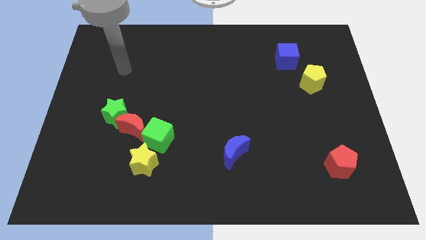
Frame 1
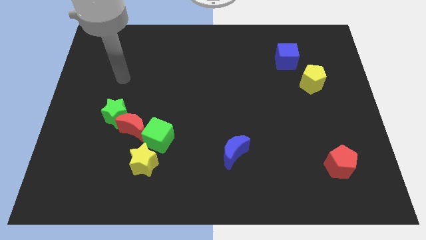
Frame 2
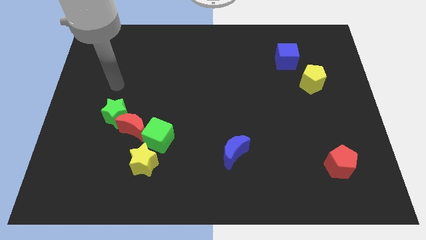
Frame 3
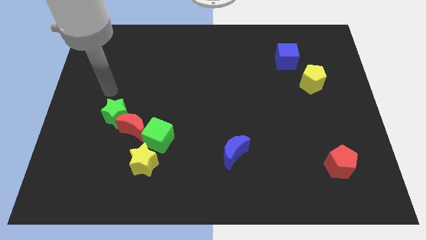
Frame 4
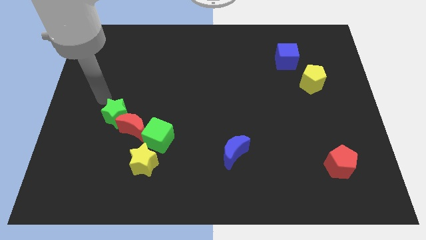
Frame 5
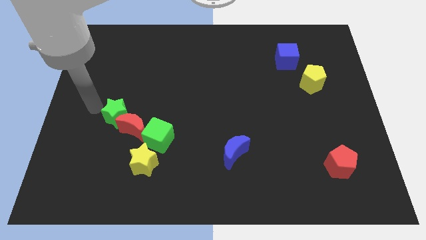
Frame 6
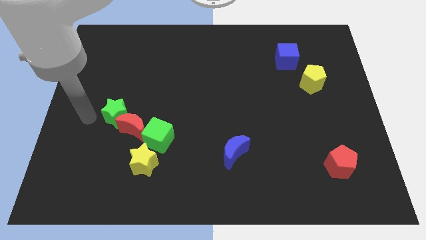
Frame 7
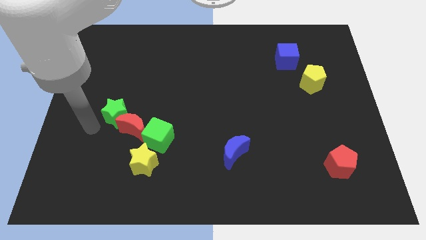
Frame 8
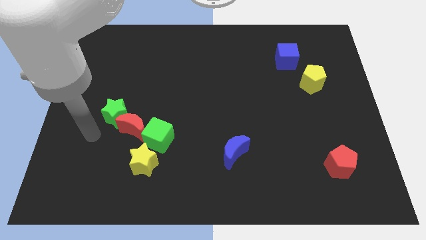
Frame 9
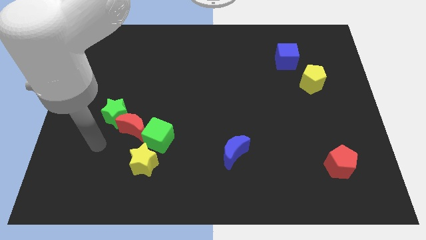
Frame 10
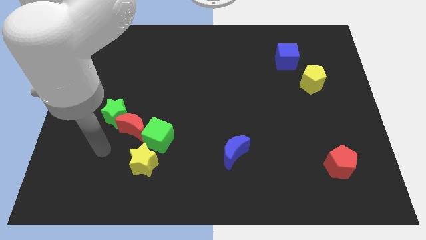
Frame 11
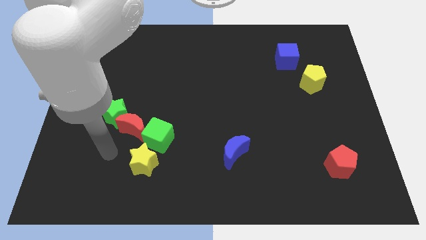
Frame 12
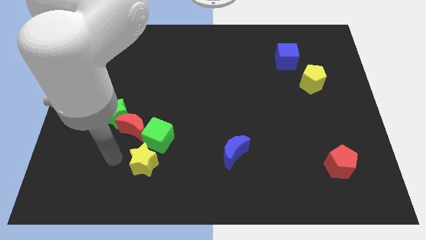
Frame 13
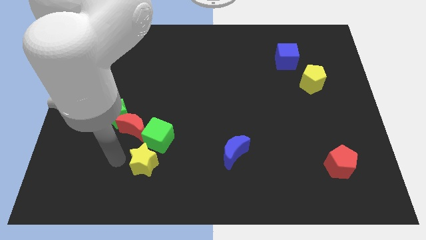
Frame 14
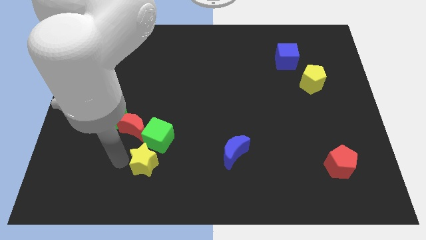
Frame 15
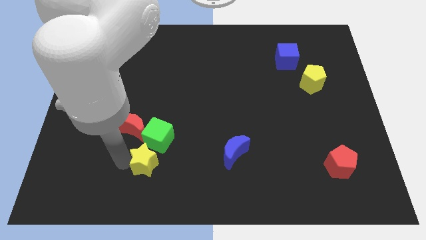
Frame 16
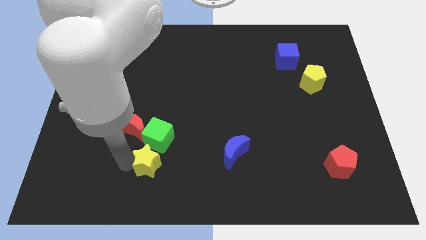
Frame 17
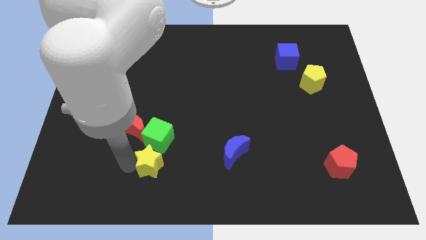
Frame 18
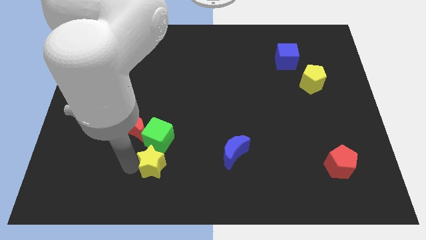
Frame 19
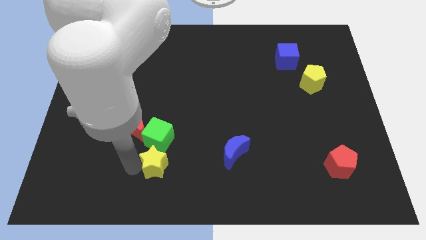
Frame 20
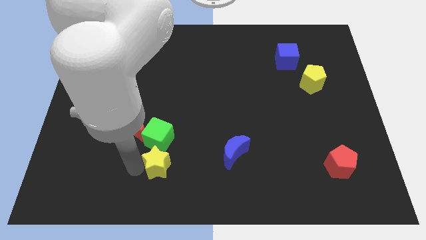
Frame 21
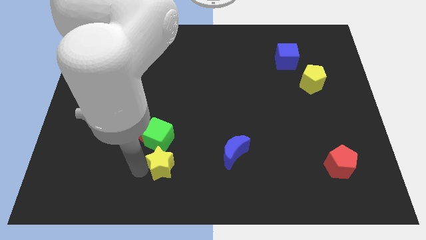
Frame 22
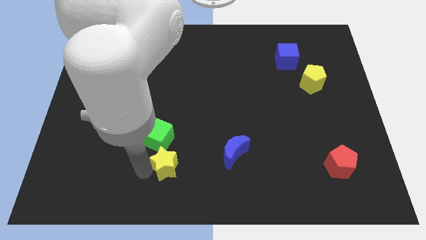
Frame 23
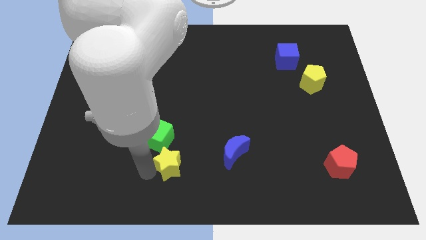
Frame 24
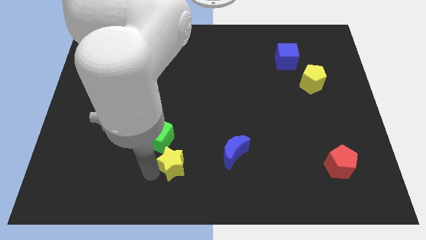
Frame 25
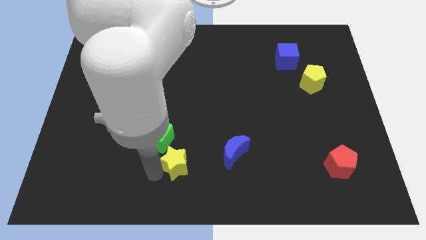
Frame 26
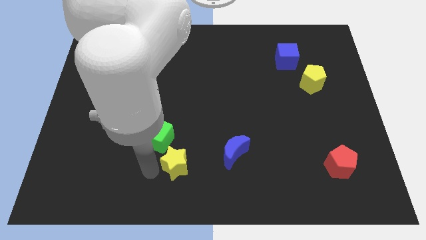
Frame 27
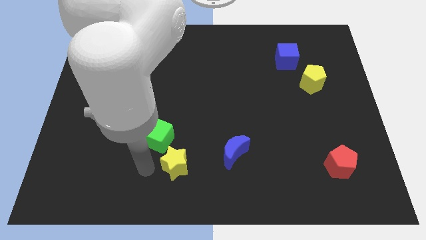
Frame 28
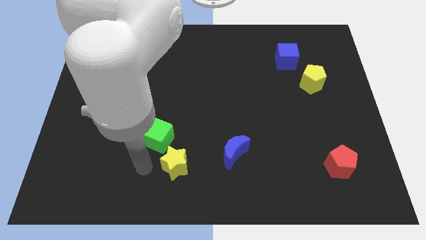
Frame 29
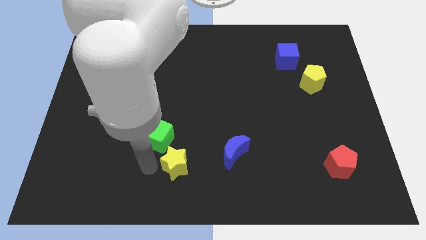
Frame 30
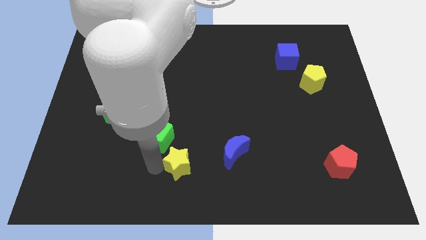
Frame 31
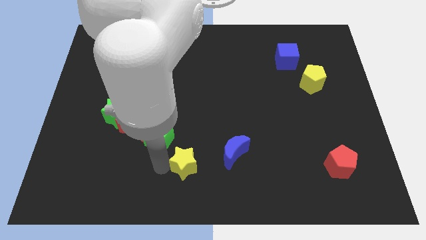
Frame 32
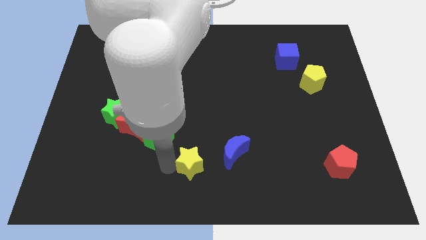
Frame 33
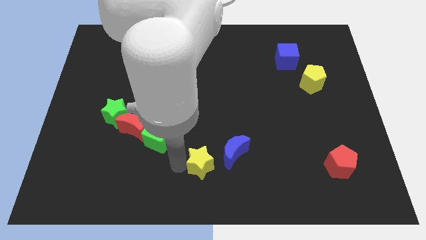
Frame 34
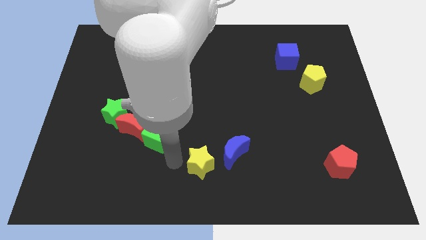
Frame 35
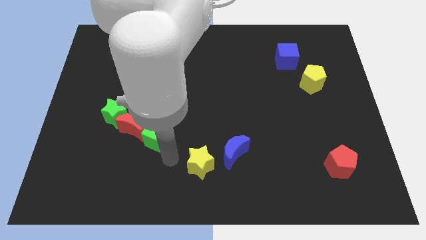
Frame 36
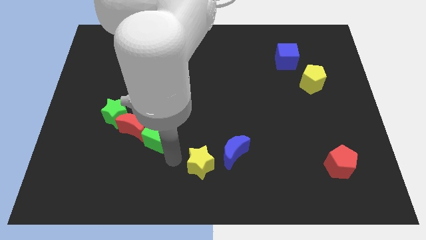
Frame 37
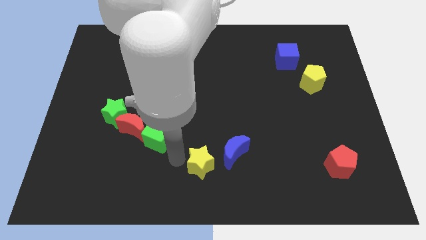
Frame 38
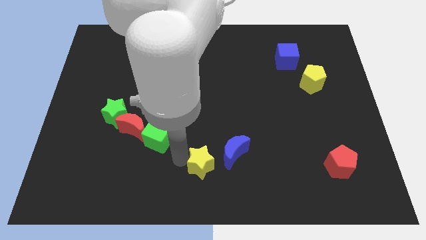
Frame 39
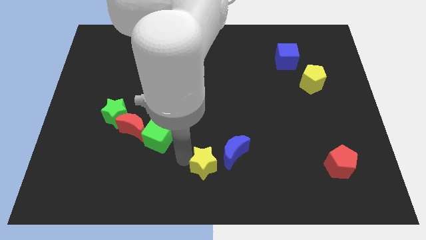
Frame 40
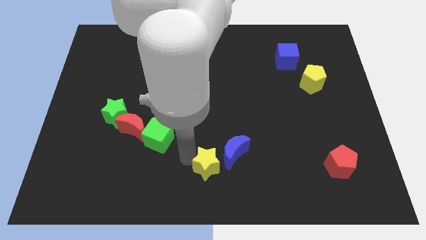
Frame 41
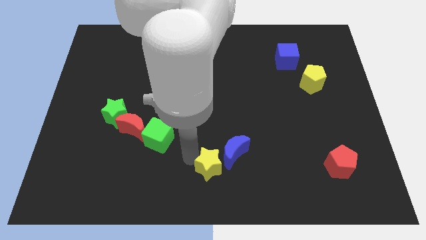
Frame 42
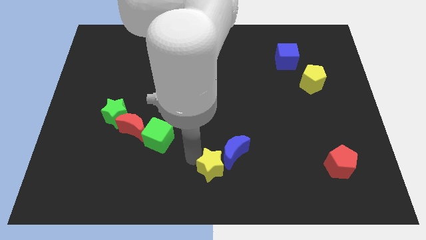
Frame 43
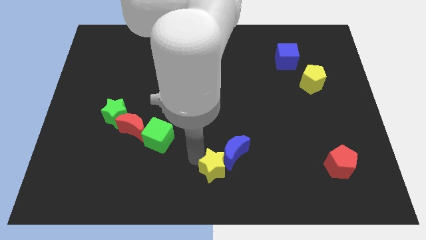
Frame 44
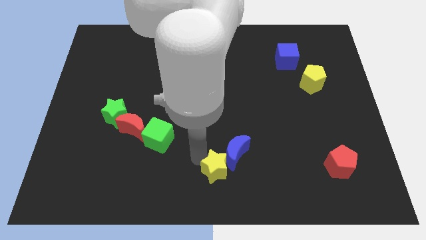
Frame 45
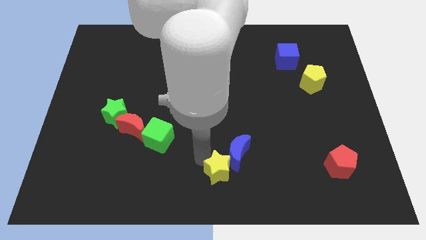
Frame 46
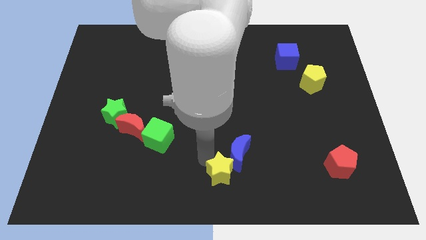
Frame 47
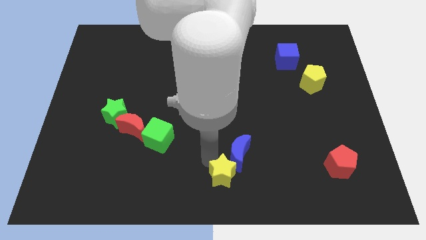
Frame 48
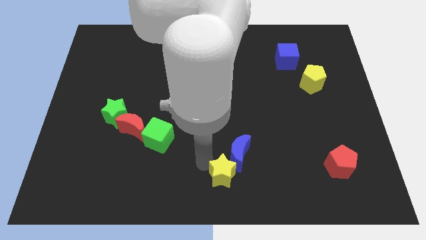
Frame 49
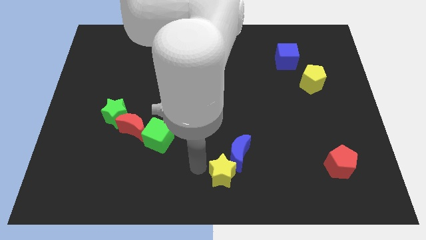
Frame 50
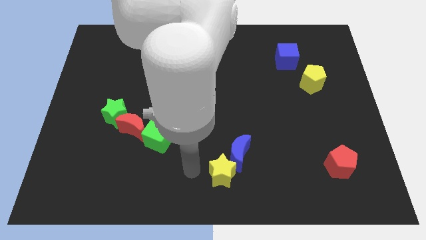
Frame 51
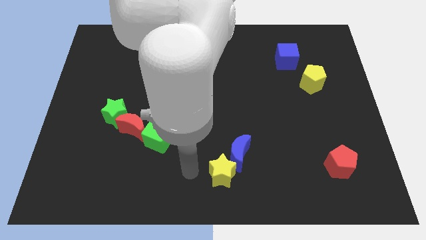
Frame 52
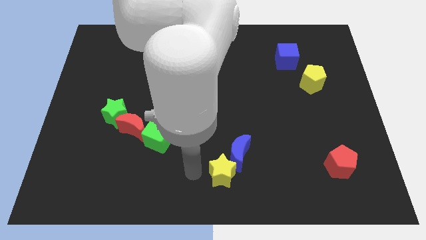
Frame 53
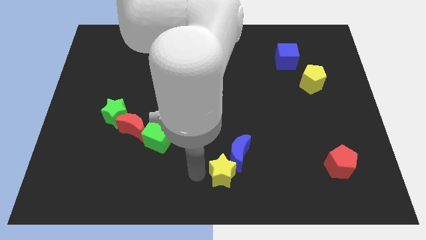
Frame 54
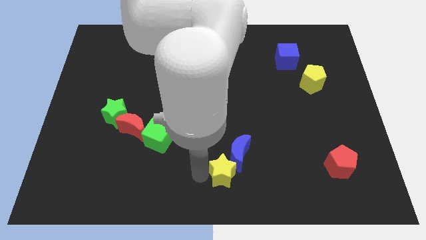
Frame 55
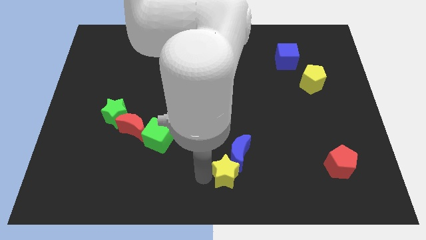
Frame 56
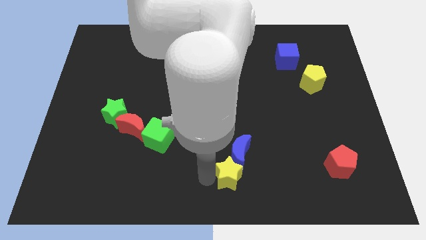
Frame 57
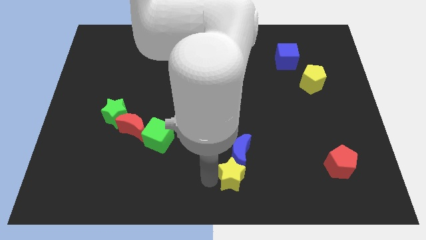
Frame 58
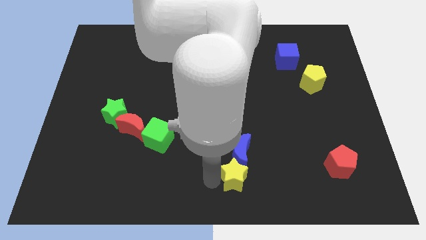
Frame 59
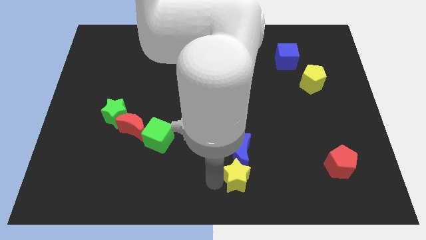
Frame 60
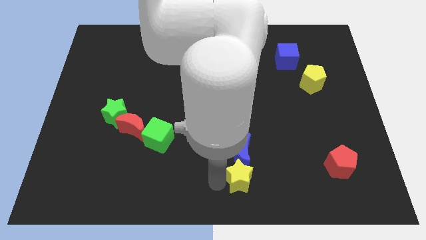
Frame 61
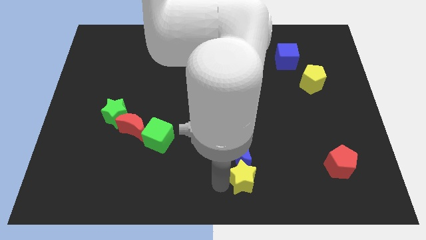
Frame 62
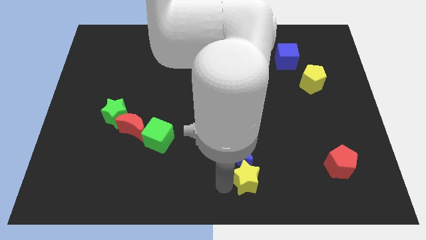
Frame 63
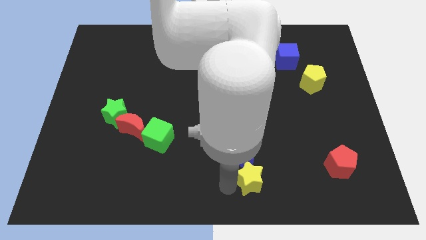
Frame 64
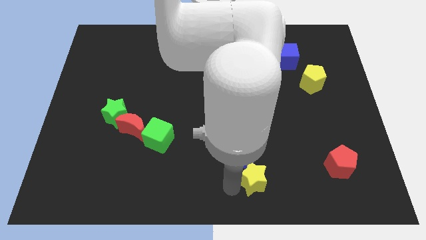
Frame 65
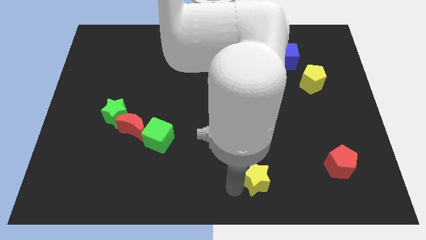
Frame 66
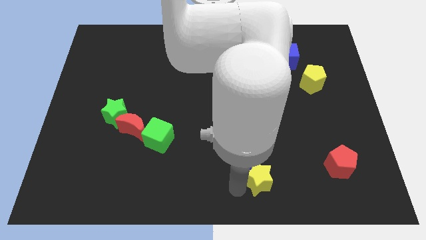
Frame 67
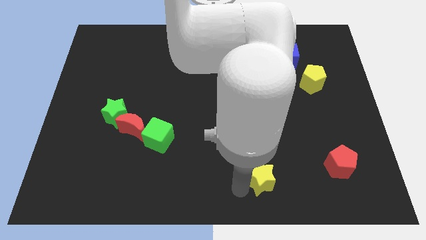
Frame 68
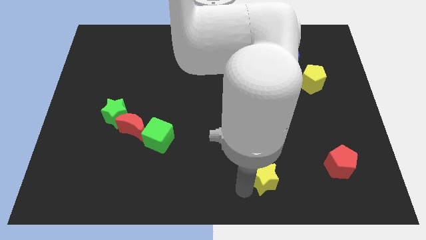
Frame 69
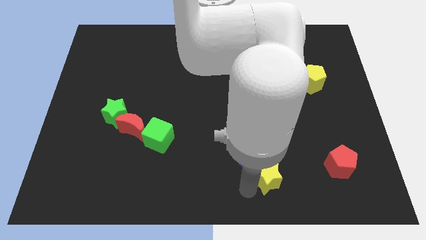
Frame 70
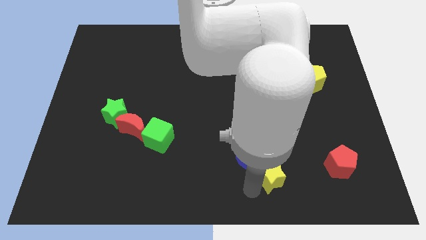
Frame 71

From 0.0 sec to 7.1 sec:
push the yellow star just left of the red pentagon
